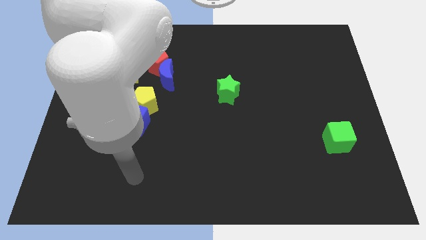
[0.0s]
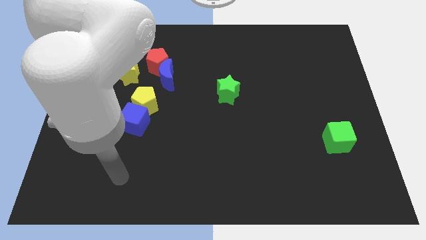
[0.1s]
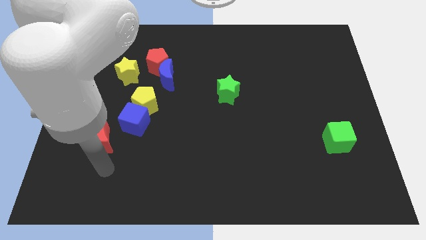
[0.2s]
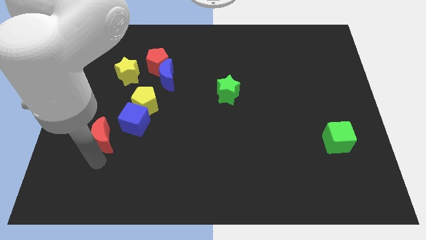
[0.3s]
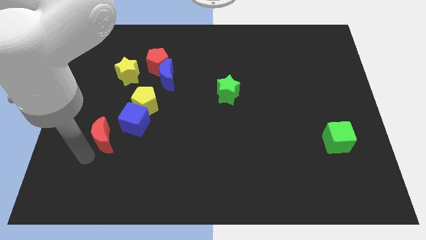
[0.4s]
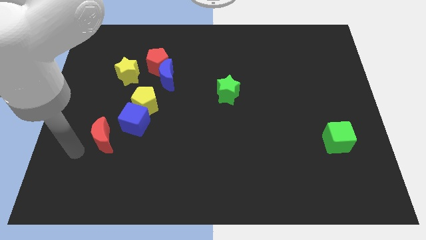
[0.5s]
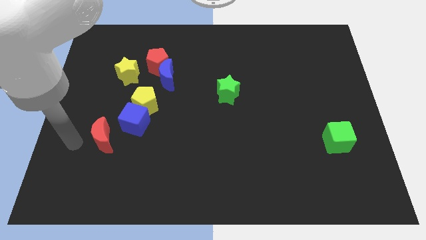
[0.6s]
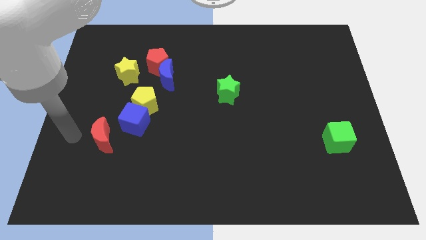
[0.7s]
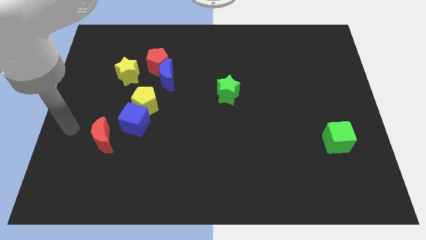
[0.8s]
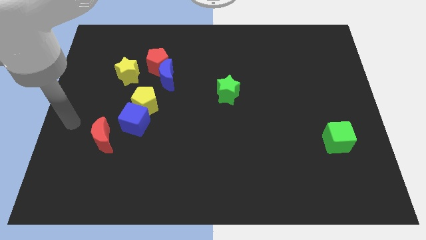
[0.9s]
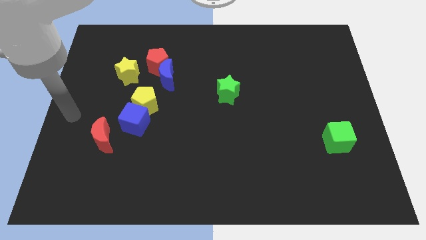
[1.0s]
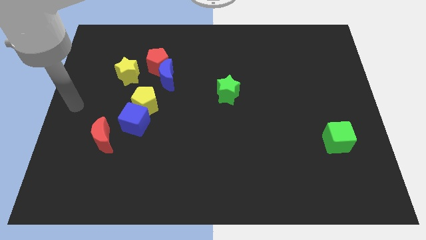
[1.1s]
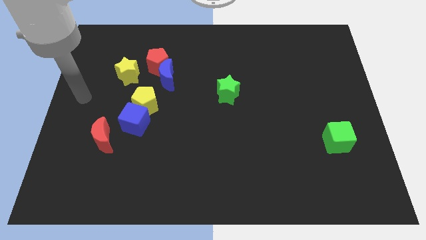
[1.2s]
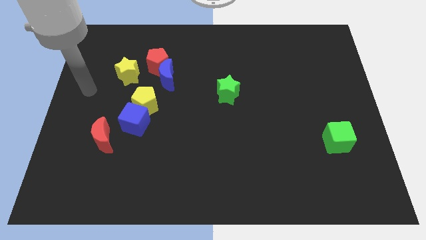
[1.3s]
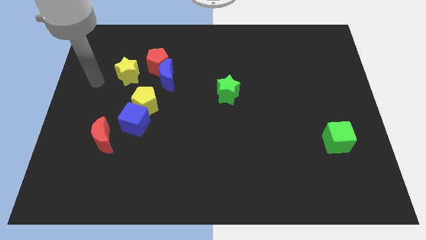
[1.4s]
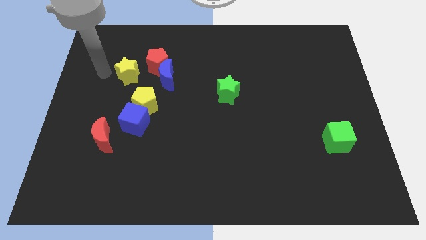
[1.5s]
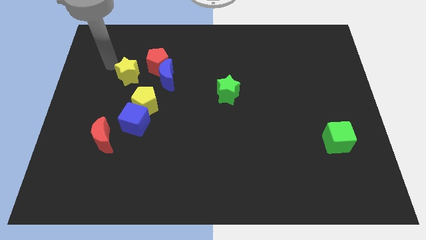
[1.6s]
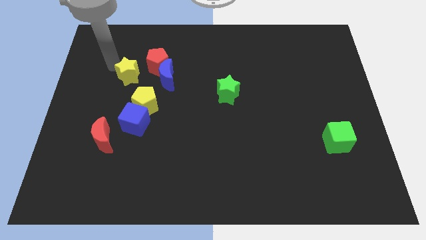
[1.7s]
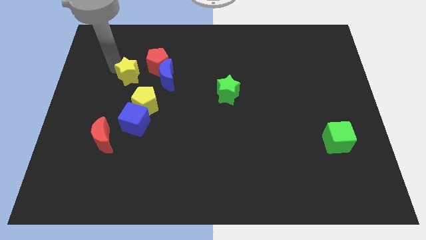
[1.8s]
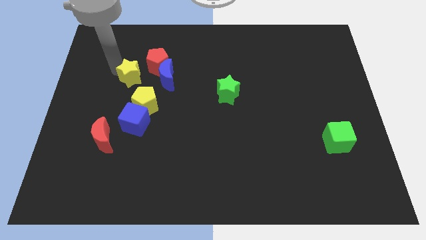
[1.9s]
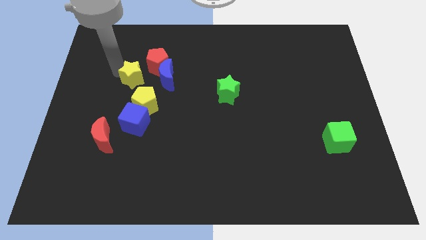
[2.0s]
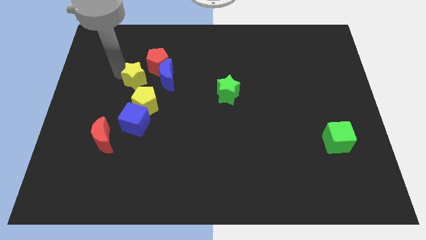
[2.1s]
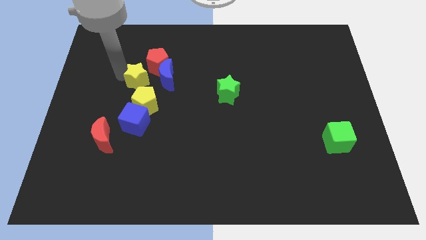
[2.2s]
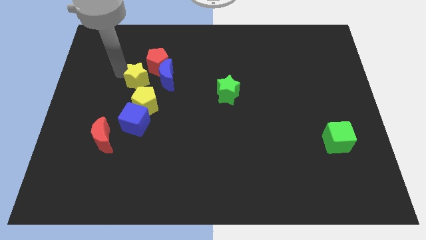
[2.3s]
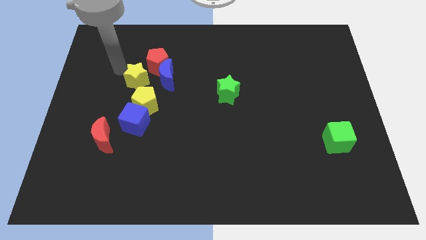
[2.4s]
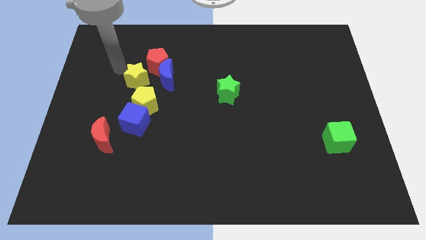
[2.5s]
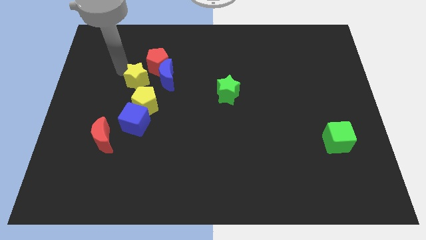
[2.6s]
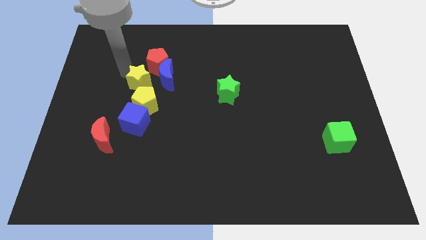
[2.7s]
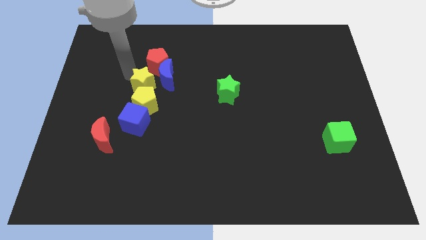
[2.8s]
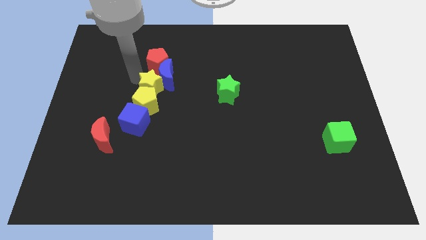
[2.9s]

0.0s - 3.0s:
slightly push the yellow star diagonally down and right

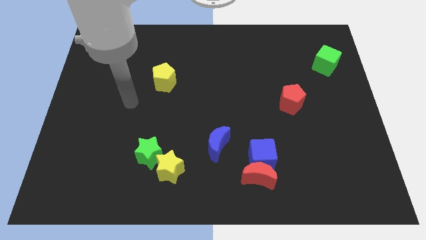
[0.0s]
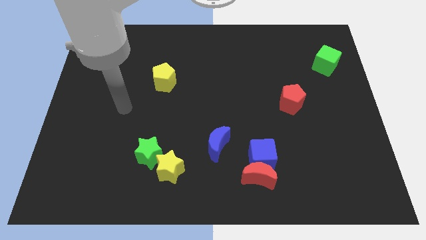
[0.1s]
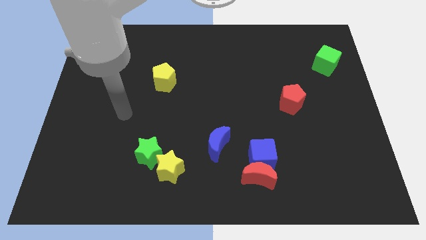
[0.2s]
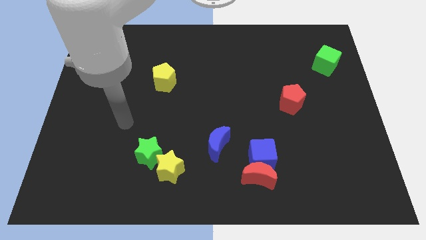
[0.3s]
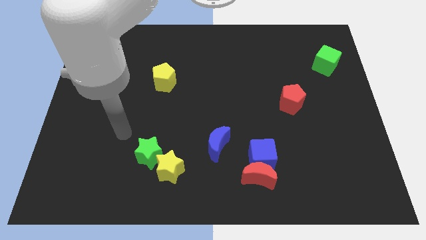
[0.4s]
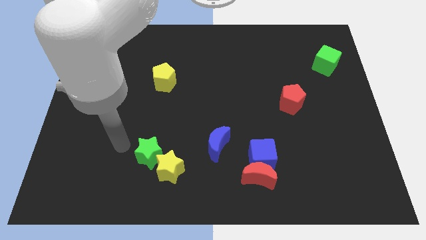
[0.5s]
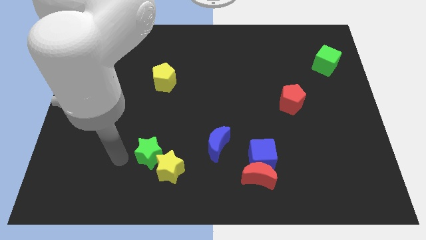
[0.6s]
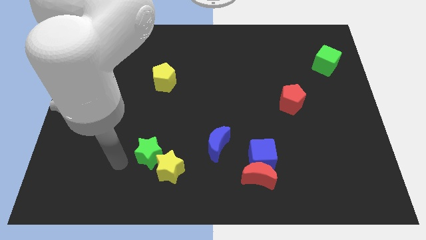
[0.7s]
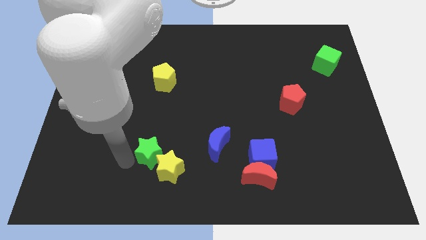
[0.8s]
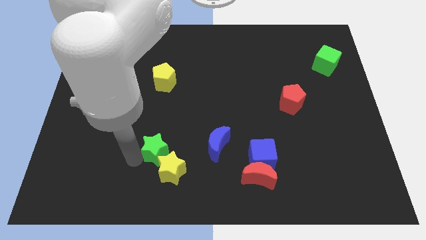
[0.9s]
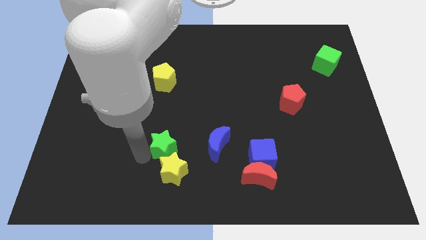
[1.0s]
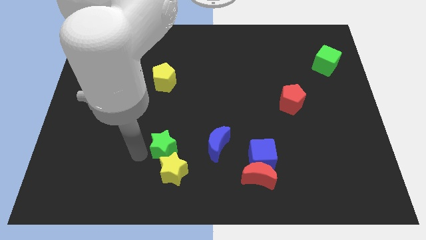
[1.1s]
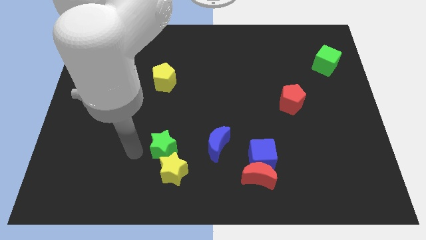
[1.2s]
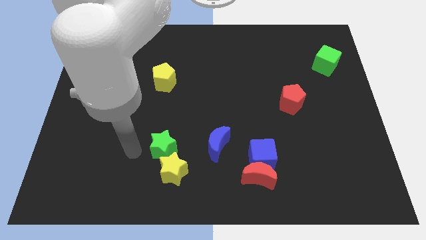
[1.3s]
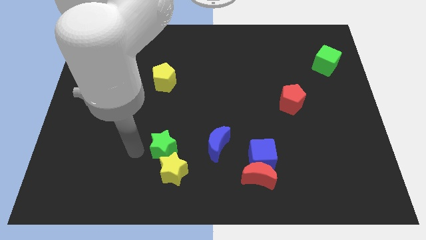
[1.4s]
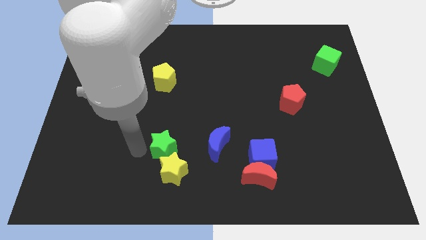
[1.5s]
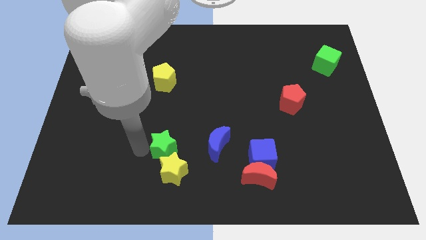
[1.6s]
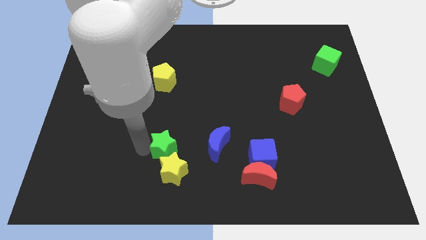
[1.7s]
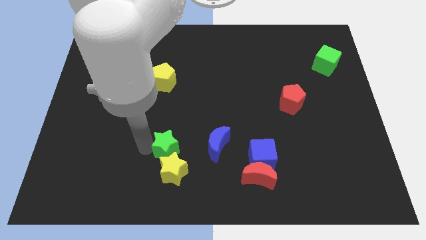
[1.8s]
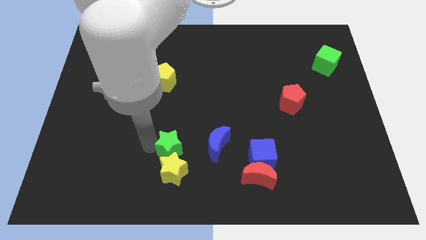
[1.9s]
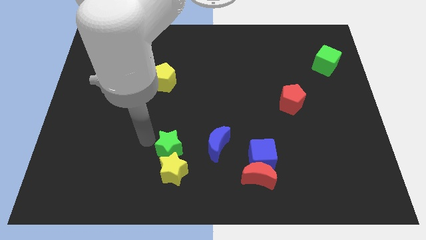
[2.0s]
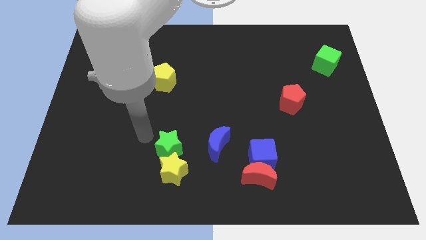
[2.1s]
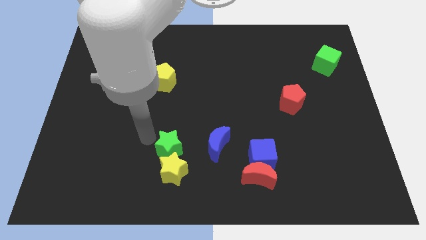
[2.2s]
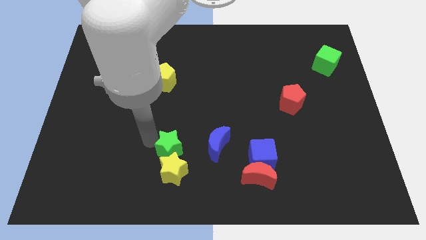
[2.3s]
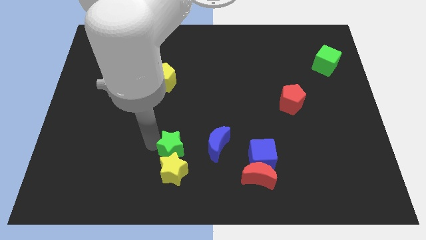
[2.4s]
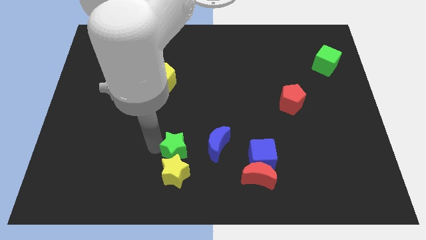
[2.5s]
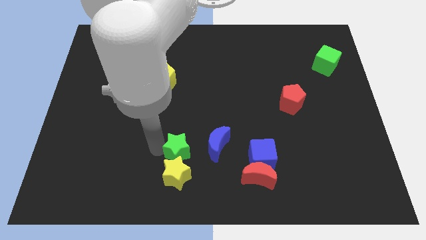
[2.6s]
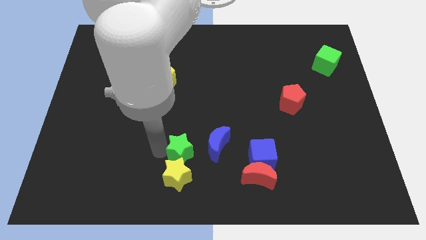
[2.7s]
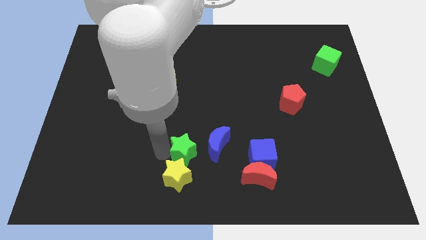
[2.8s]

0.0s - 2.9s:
slightly push the green star right

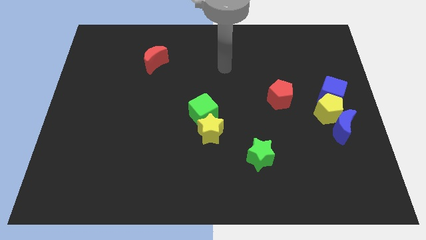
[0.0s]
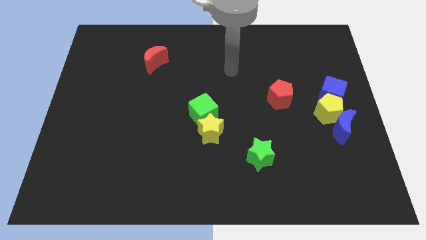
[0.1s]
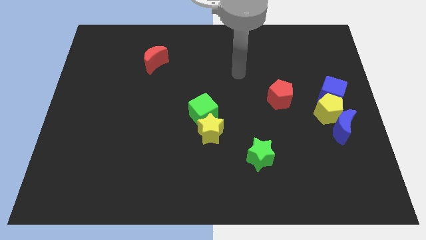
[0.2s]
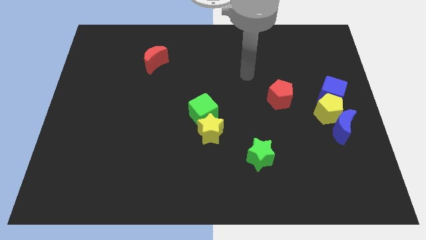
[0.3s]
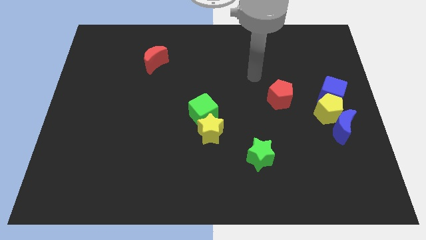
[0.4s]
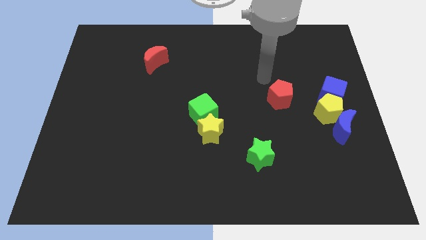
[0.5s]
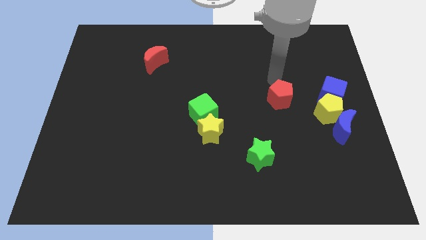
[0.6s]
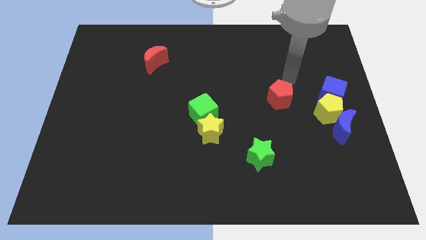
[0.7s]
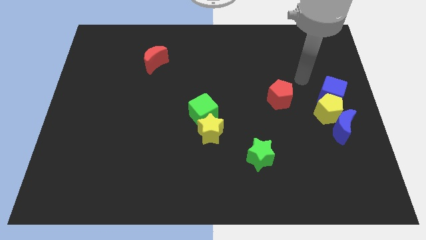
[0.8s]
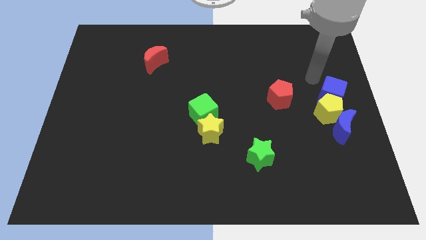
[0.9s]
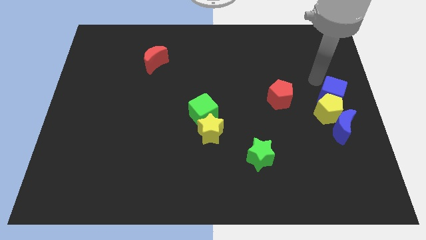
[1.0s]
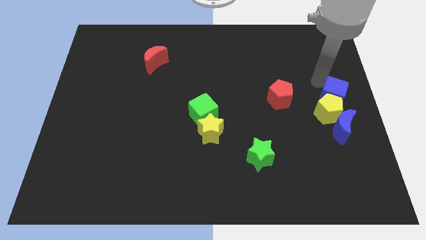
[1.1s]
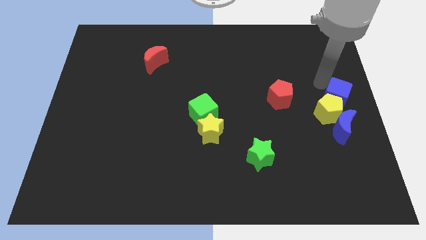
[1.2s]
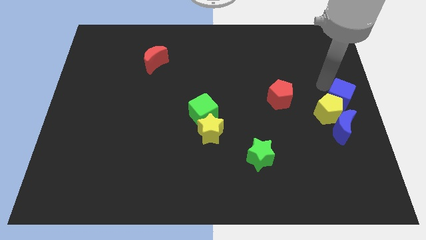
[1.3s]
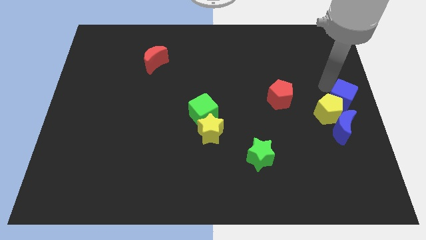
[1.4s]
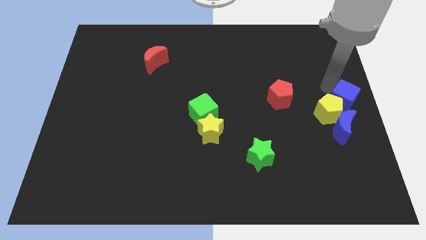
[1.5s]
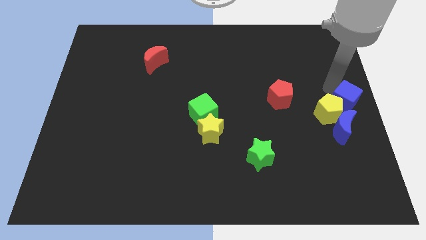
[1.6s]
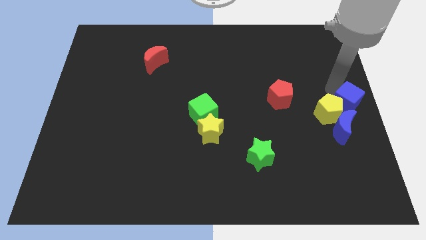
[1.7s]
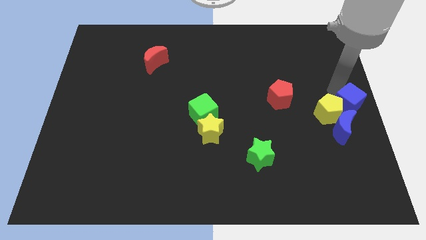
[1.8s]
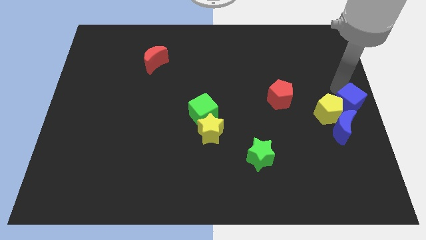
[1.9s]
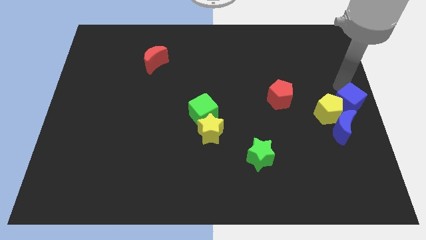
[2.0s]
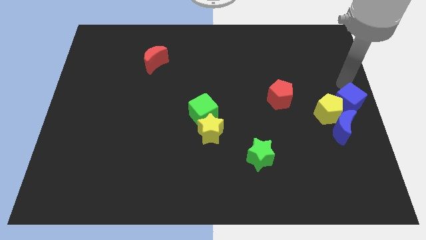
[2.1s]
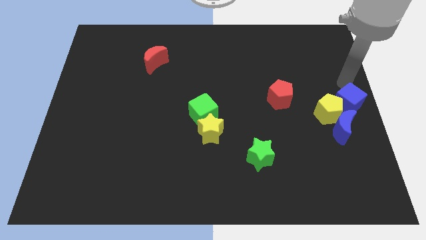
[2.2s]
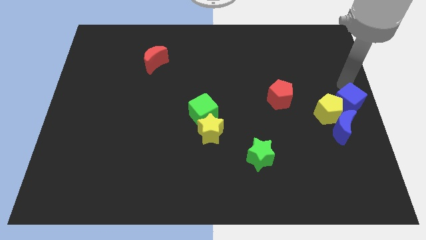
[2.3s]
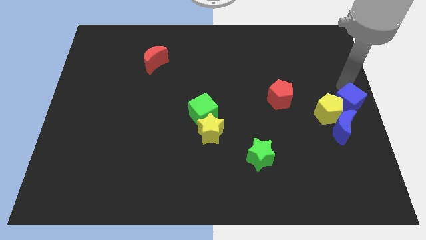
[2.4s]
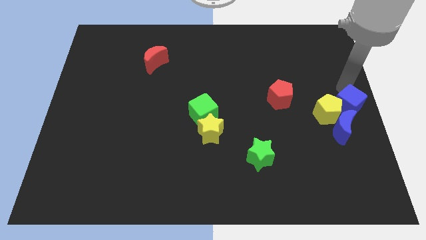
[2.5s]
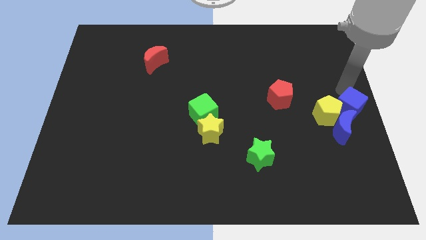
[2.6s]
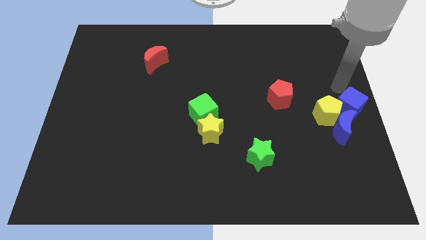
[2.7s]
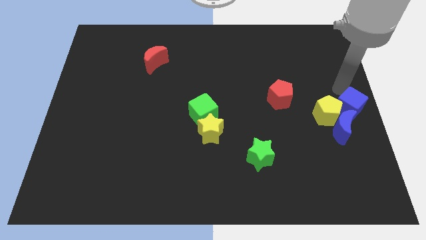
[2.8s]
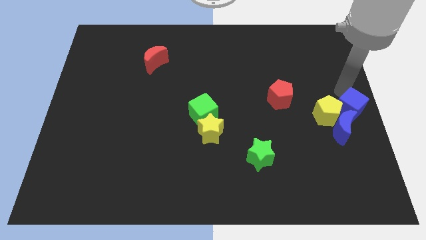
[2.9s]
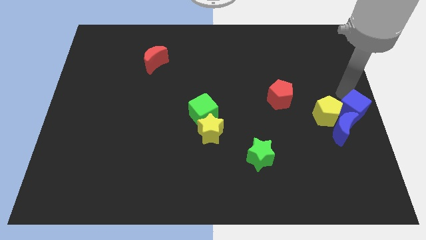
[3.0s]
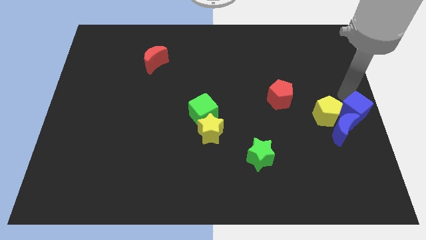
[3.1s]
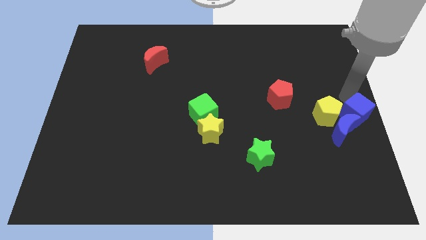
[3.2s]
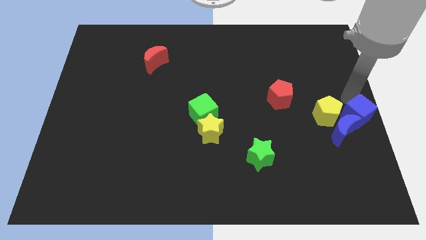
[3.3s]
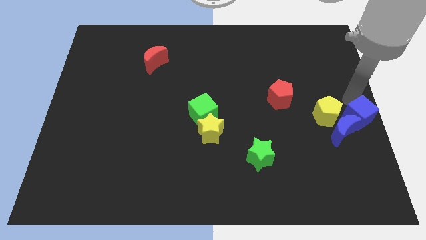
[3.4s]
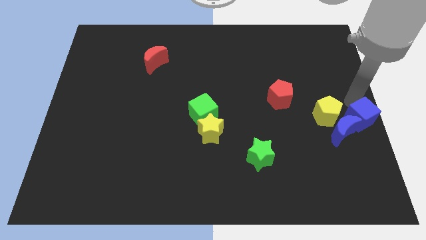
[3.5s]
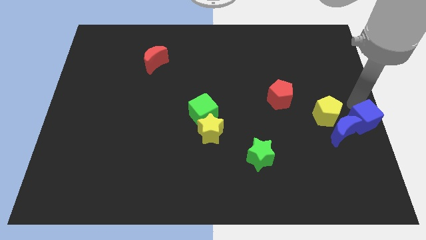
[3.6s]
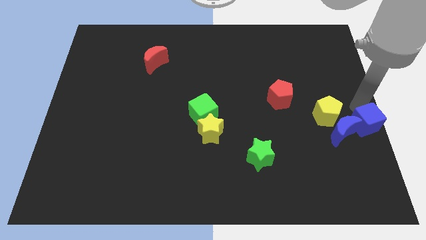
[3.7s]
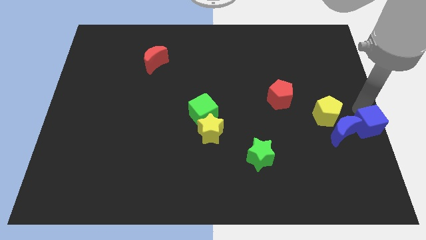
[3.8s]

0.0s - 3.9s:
slide the blue cube somewhat downwards
